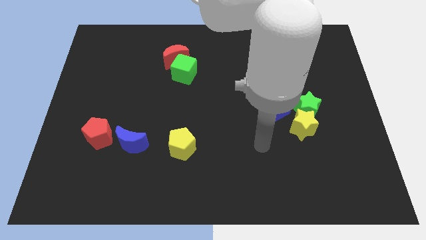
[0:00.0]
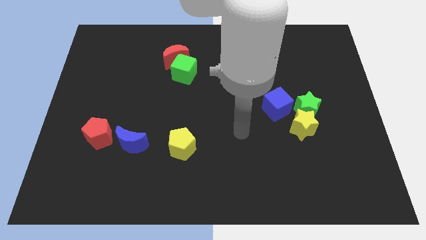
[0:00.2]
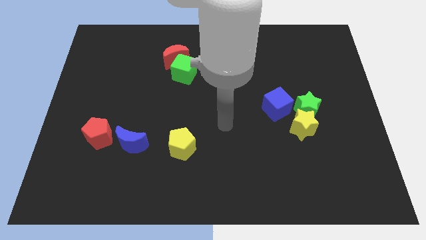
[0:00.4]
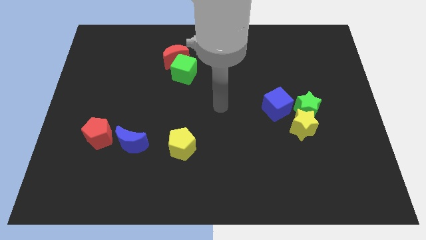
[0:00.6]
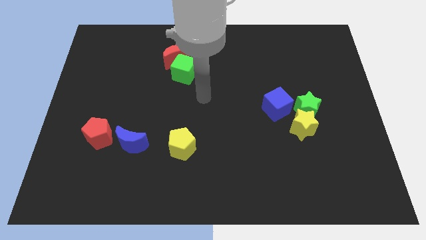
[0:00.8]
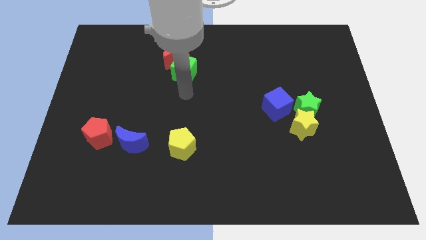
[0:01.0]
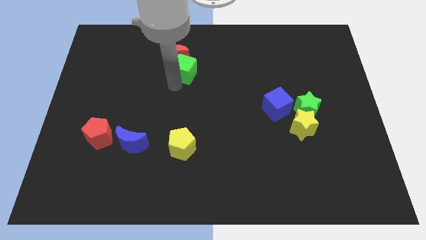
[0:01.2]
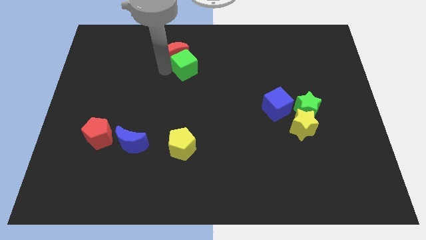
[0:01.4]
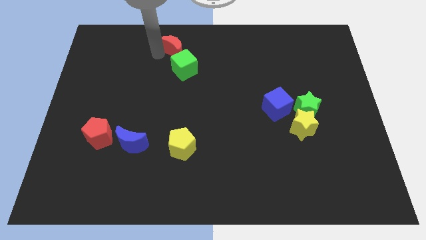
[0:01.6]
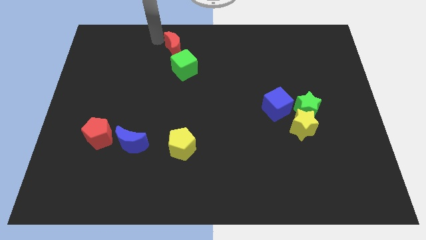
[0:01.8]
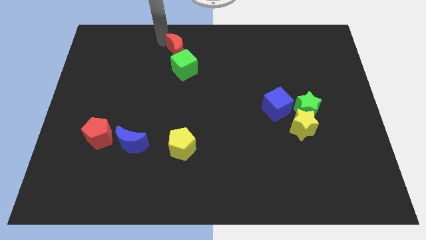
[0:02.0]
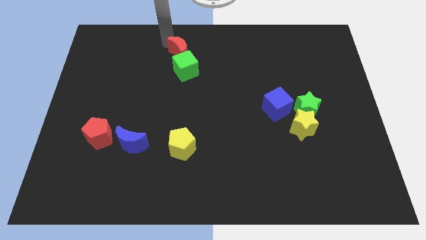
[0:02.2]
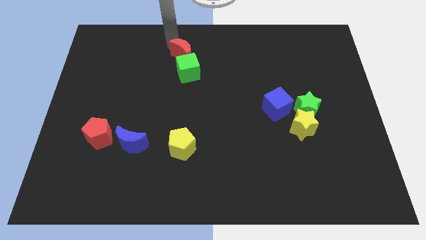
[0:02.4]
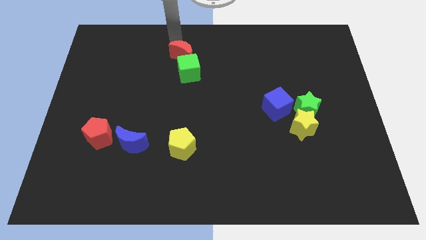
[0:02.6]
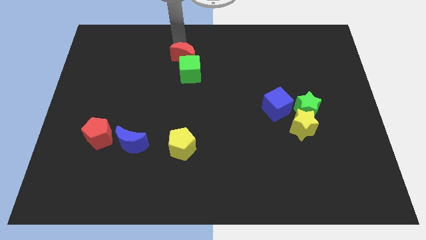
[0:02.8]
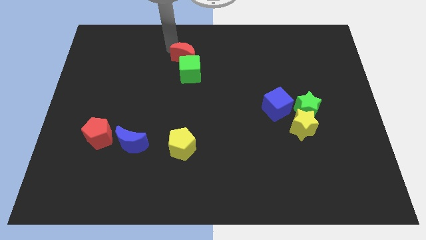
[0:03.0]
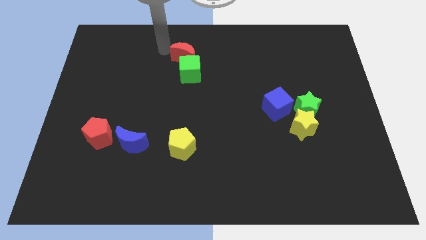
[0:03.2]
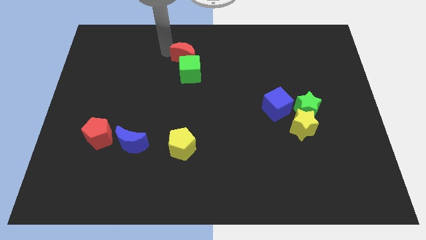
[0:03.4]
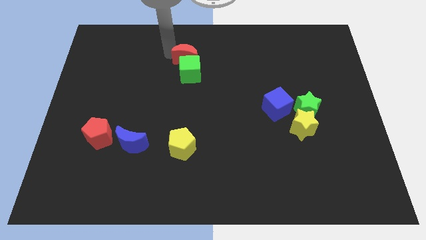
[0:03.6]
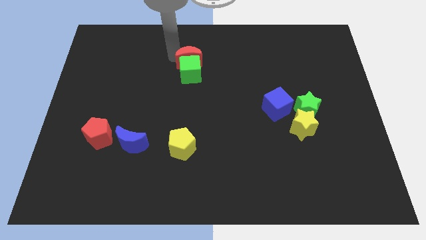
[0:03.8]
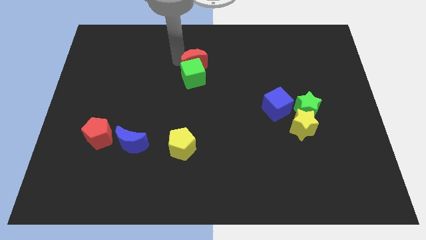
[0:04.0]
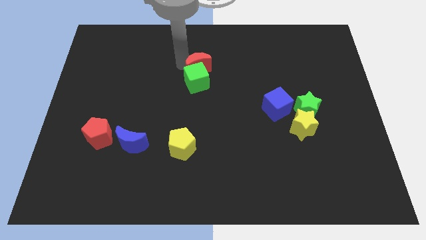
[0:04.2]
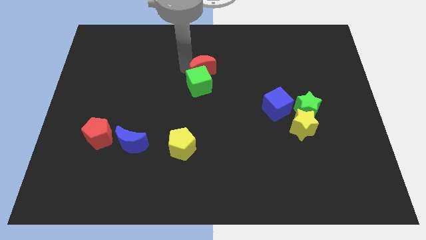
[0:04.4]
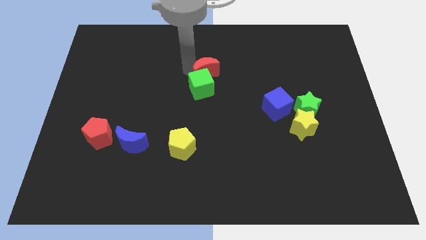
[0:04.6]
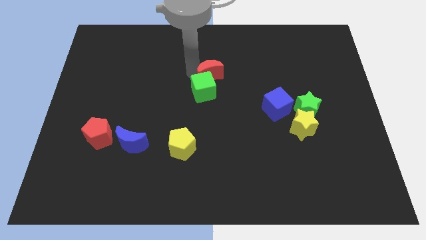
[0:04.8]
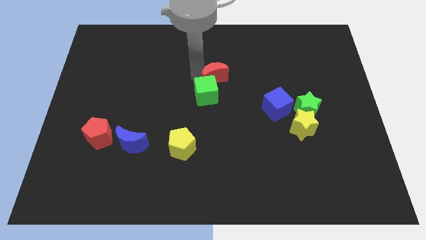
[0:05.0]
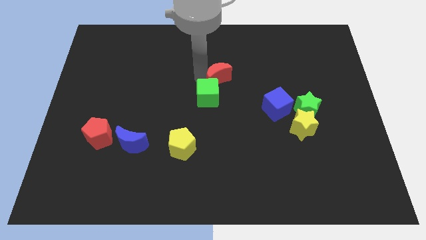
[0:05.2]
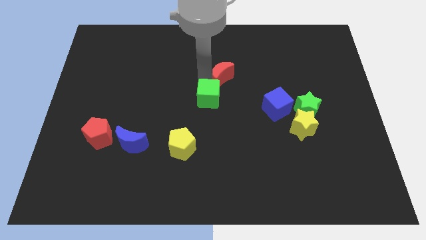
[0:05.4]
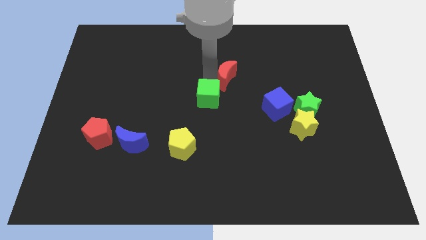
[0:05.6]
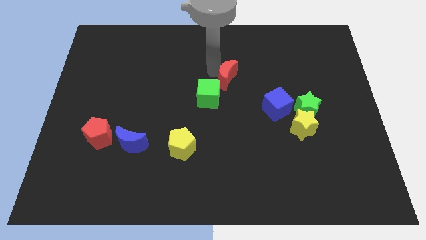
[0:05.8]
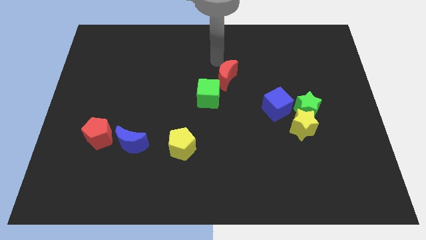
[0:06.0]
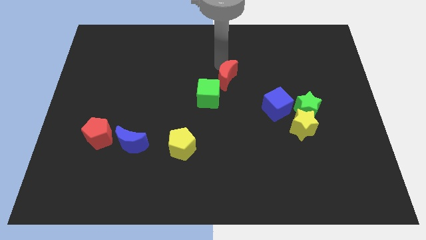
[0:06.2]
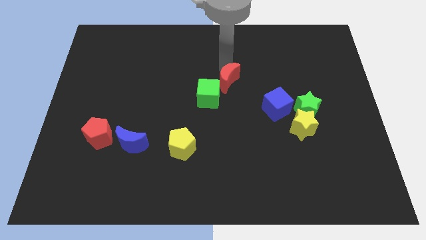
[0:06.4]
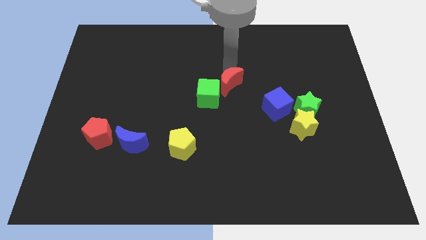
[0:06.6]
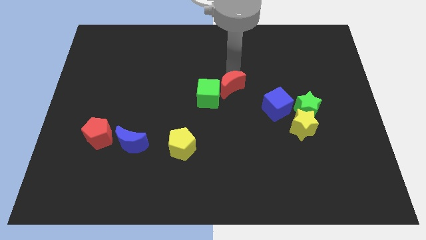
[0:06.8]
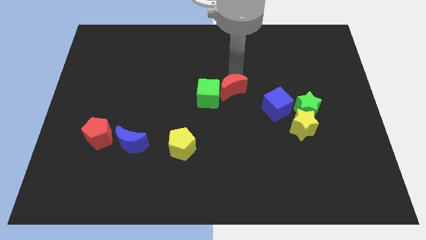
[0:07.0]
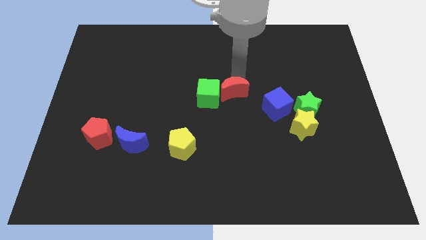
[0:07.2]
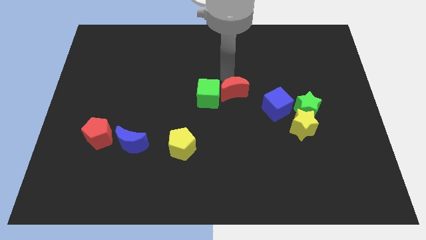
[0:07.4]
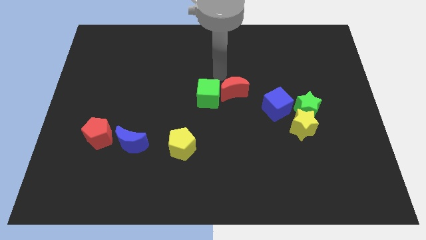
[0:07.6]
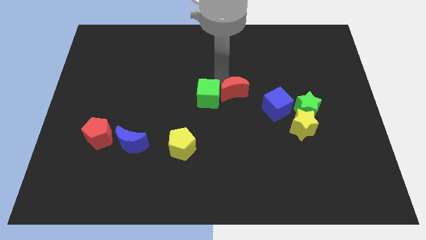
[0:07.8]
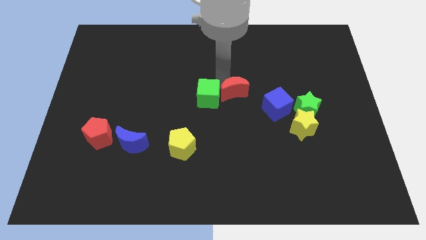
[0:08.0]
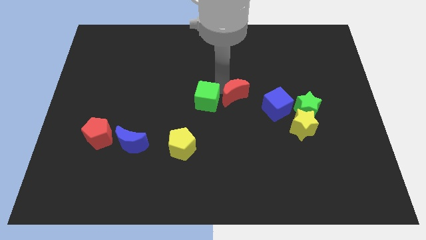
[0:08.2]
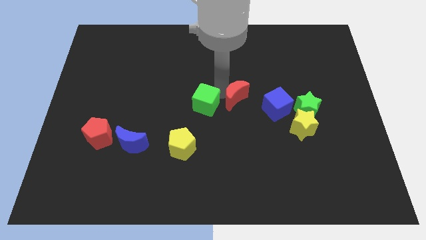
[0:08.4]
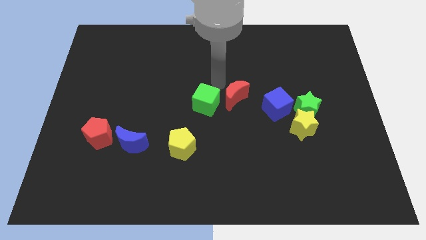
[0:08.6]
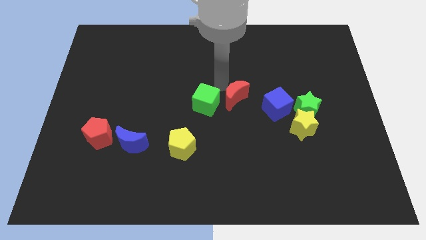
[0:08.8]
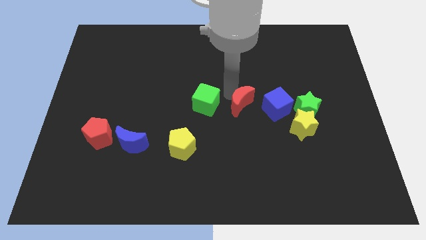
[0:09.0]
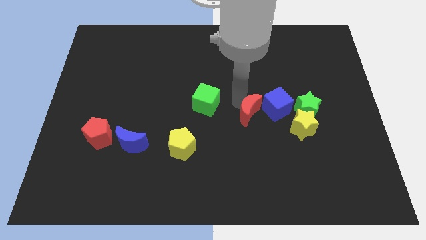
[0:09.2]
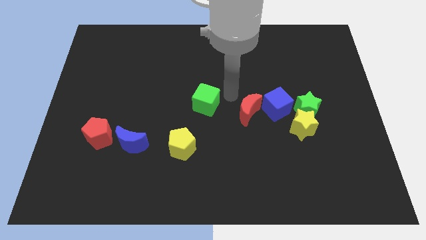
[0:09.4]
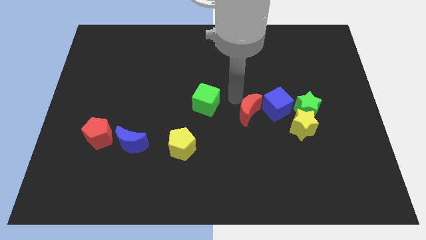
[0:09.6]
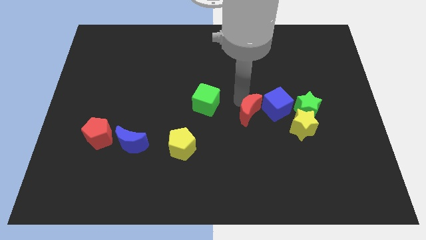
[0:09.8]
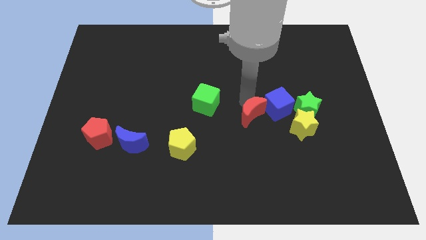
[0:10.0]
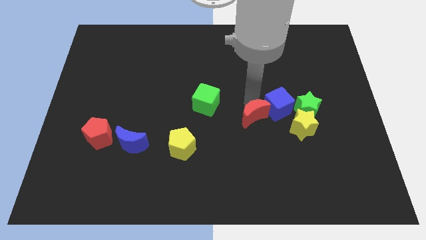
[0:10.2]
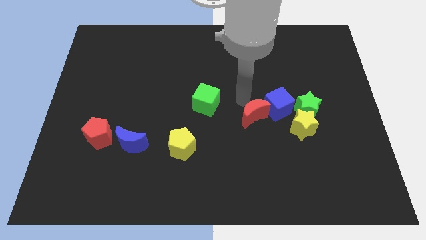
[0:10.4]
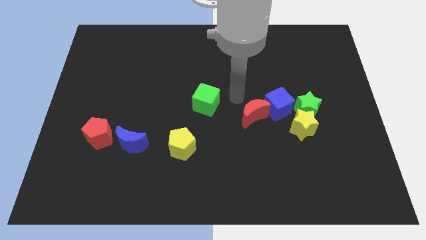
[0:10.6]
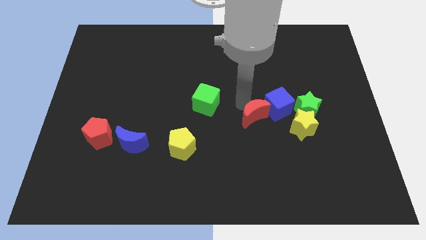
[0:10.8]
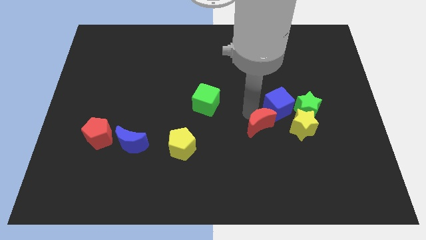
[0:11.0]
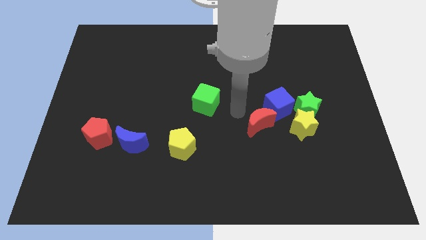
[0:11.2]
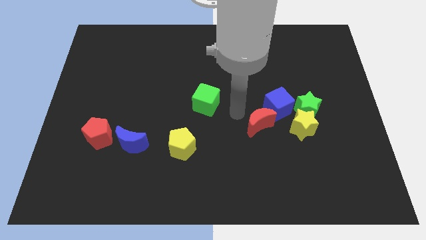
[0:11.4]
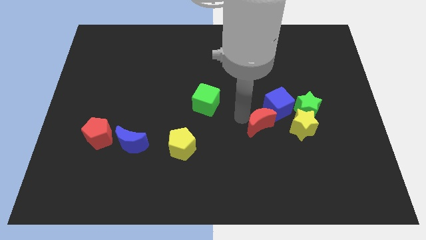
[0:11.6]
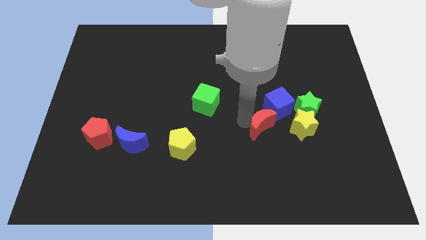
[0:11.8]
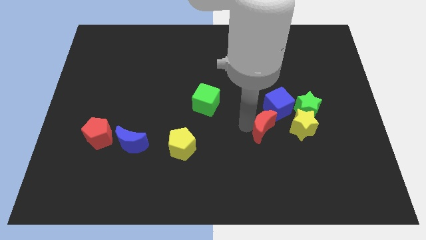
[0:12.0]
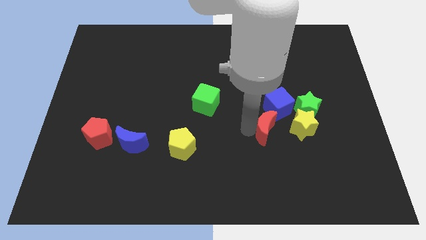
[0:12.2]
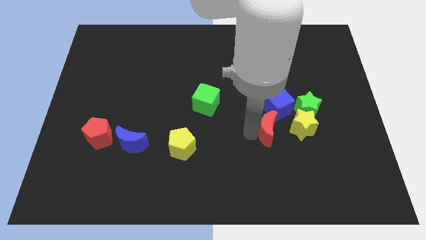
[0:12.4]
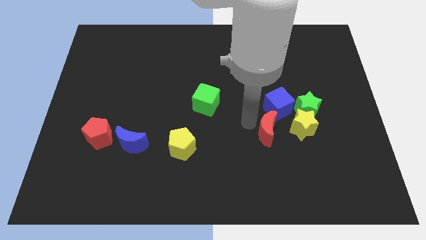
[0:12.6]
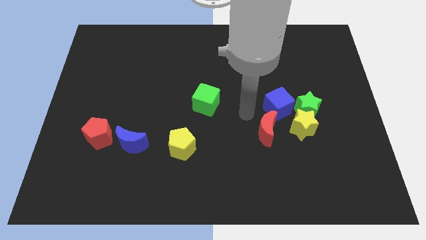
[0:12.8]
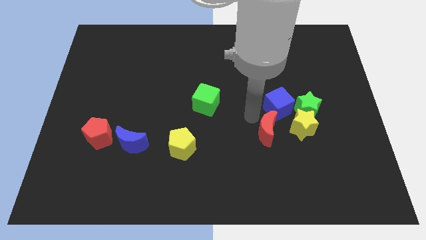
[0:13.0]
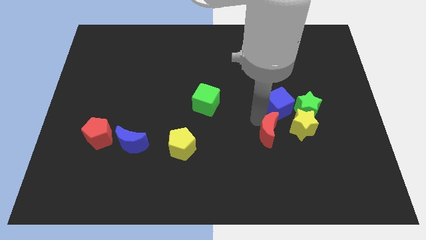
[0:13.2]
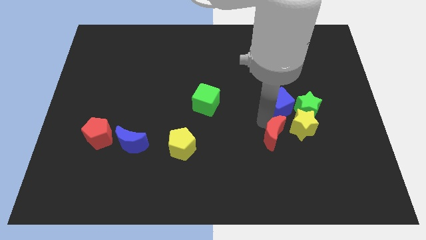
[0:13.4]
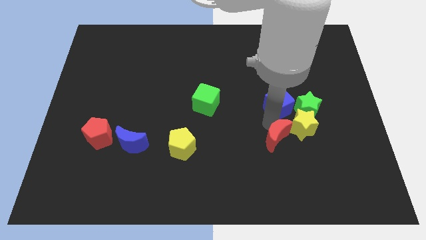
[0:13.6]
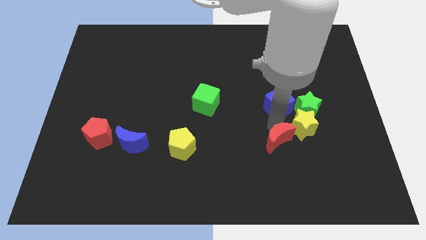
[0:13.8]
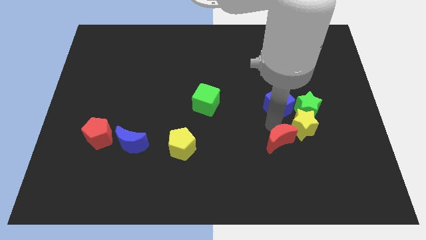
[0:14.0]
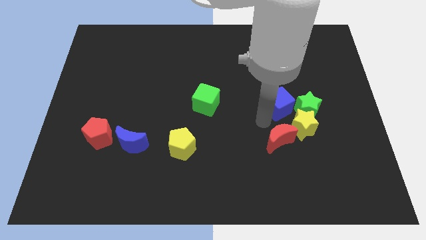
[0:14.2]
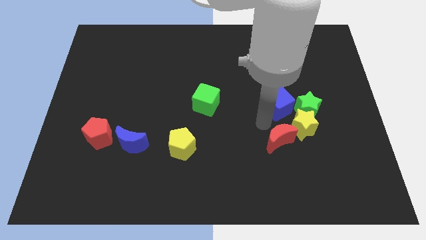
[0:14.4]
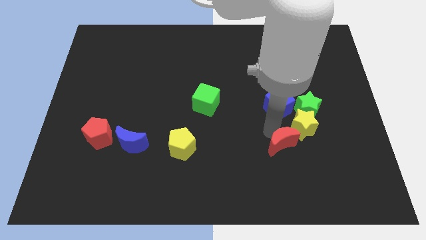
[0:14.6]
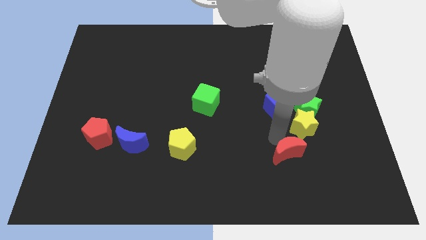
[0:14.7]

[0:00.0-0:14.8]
move the red moon below the yellow star

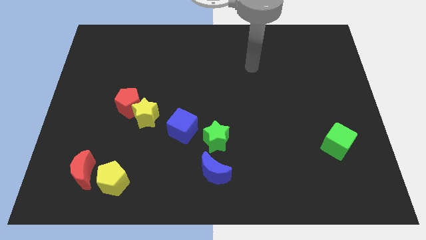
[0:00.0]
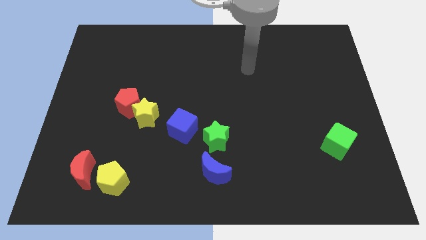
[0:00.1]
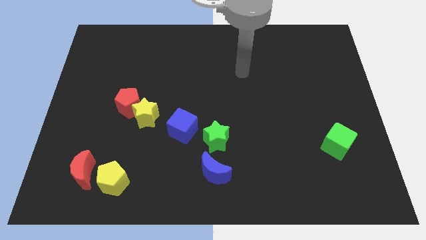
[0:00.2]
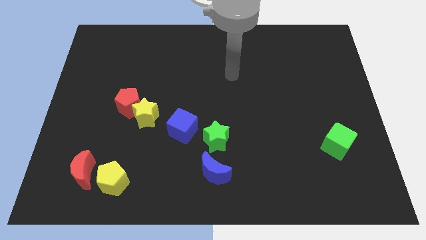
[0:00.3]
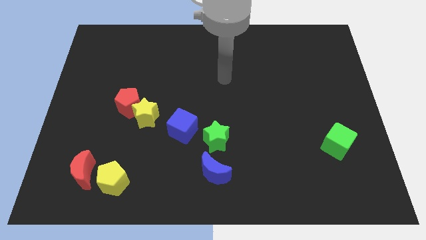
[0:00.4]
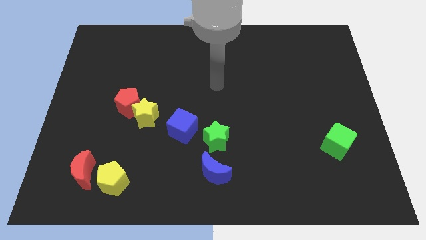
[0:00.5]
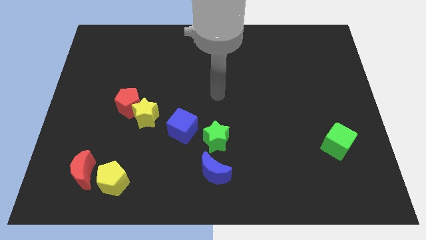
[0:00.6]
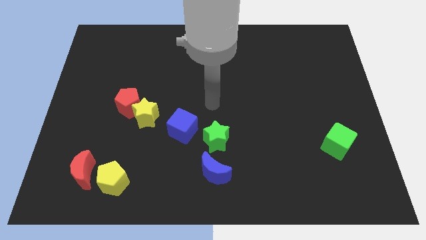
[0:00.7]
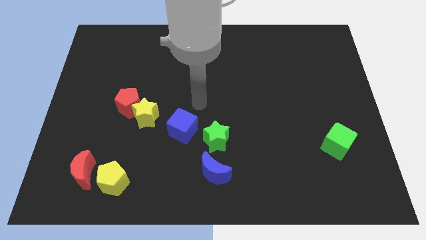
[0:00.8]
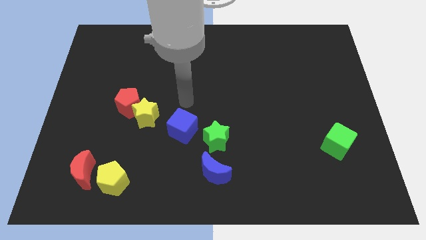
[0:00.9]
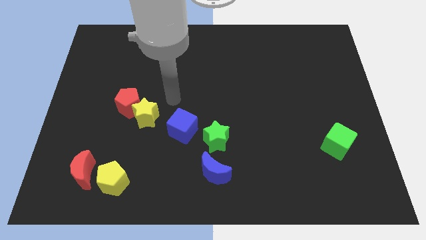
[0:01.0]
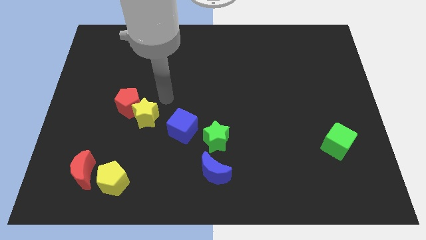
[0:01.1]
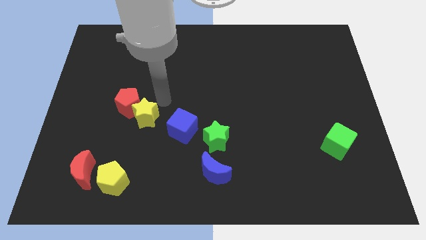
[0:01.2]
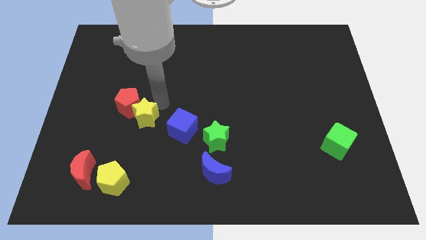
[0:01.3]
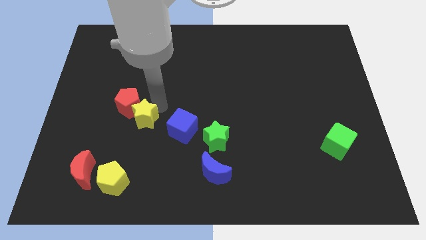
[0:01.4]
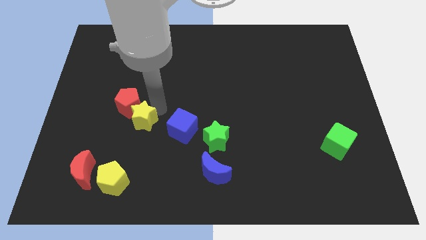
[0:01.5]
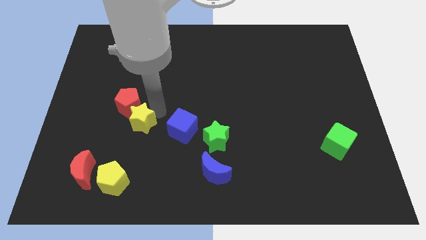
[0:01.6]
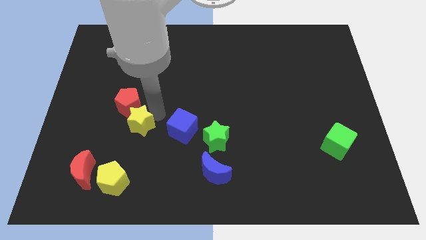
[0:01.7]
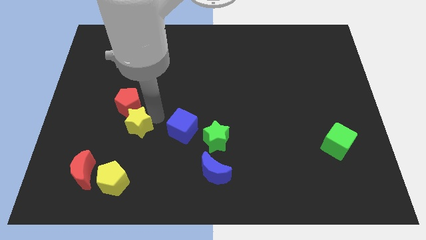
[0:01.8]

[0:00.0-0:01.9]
move the yellow star above the yellow pentagon
